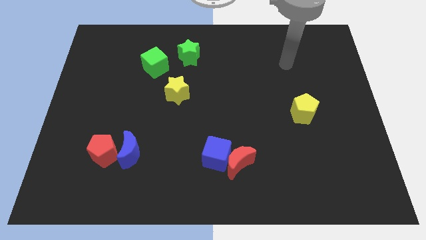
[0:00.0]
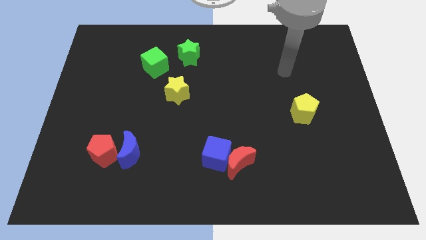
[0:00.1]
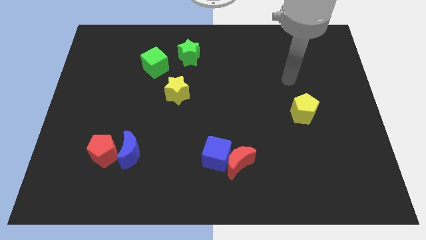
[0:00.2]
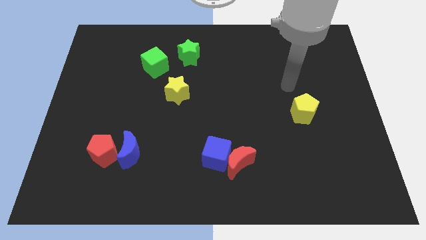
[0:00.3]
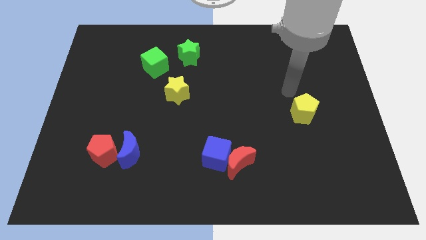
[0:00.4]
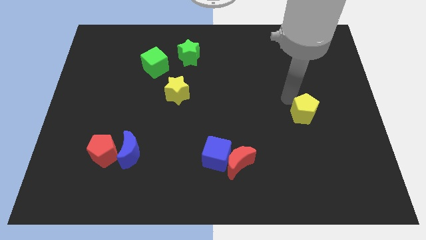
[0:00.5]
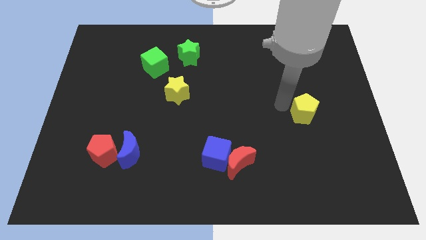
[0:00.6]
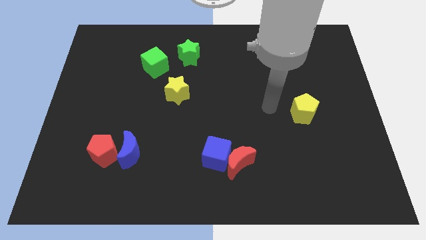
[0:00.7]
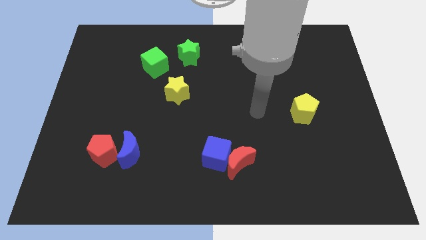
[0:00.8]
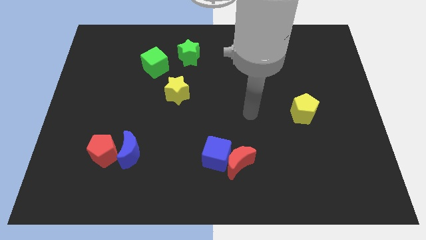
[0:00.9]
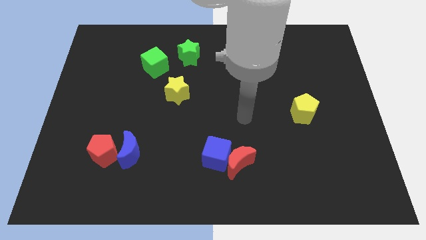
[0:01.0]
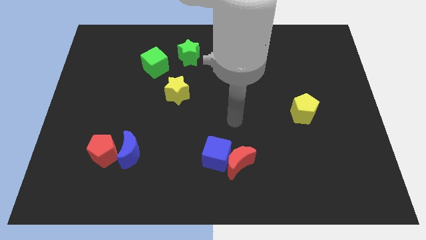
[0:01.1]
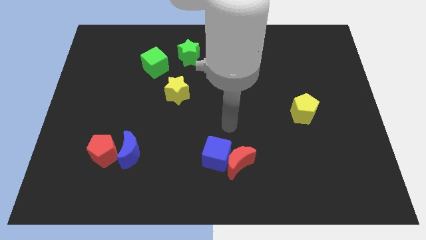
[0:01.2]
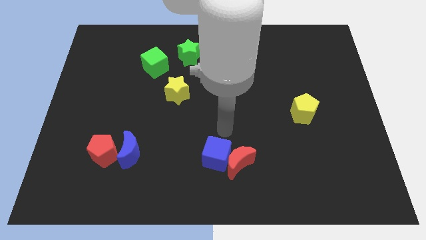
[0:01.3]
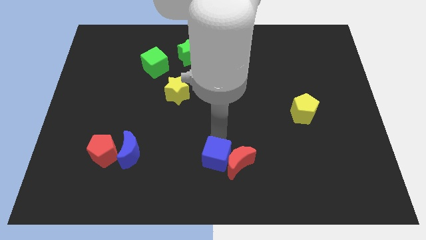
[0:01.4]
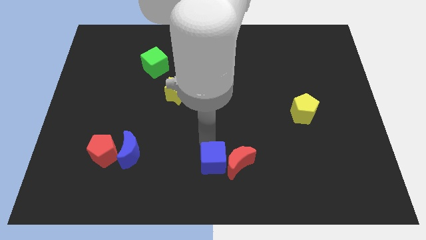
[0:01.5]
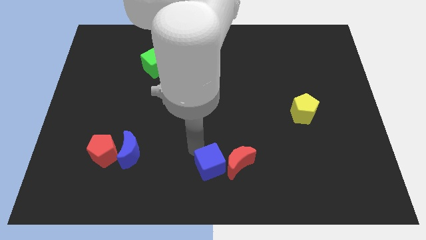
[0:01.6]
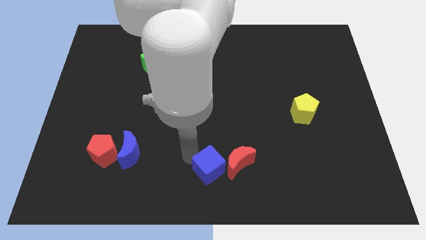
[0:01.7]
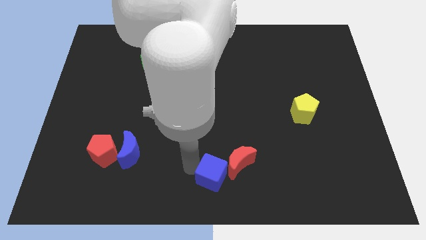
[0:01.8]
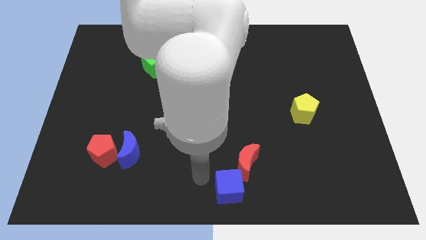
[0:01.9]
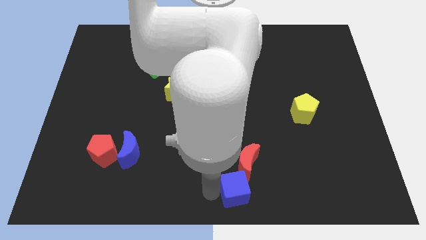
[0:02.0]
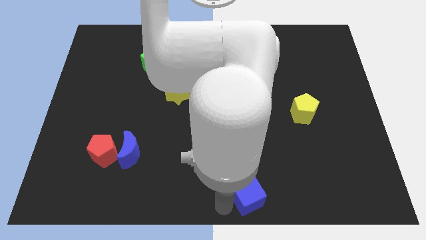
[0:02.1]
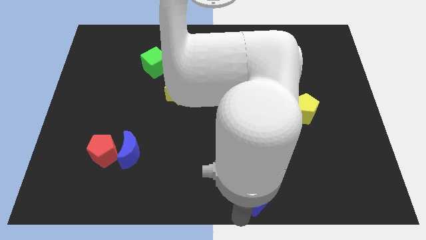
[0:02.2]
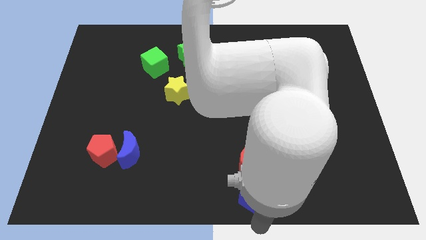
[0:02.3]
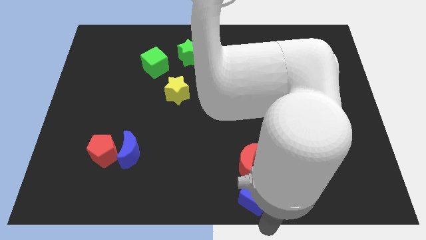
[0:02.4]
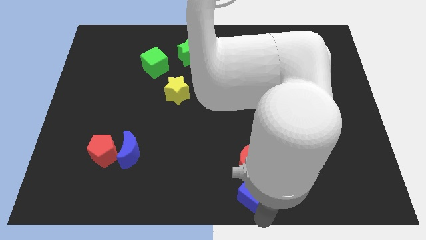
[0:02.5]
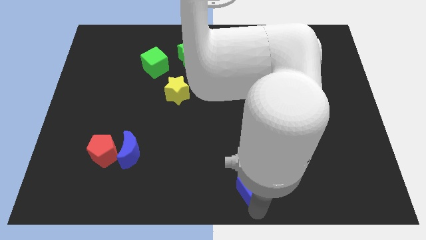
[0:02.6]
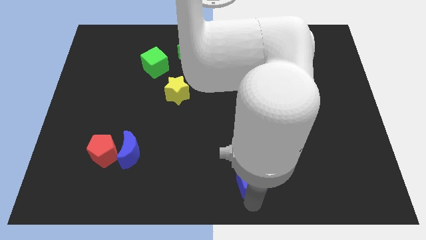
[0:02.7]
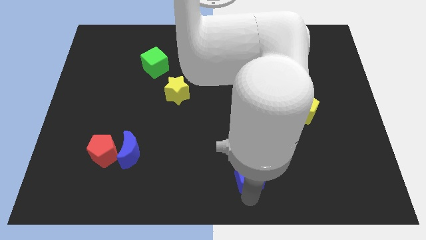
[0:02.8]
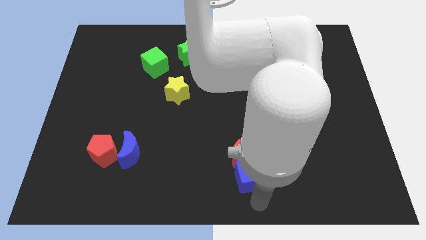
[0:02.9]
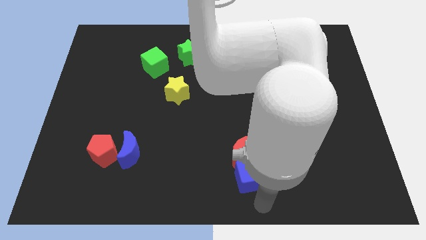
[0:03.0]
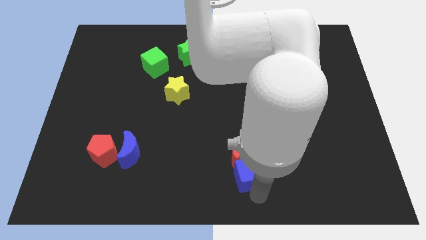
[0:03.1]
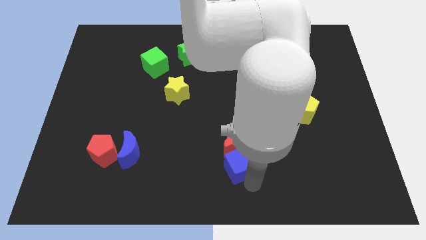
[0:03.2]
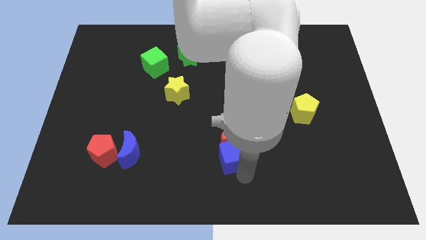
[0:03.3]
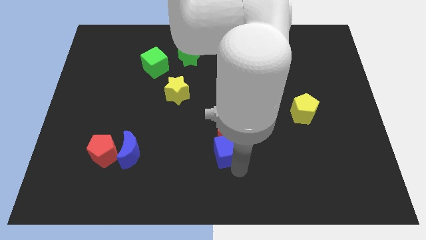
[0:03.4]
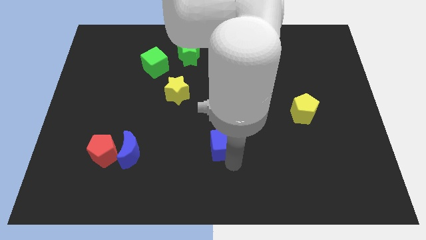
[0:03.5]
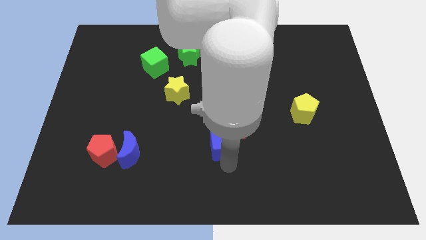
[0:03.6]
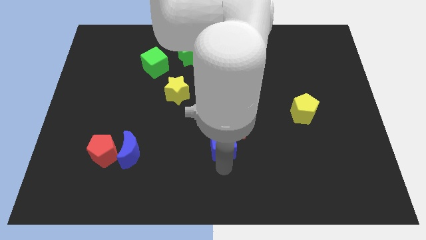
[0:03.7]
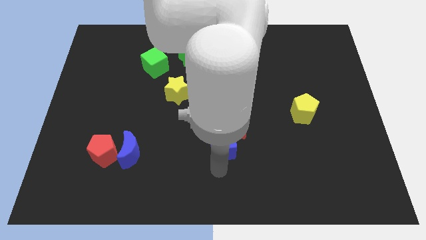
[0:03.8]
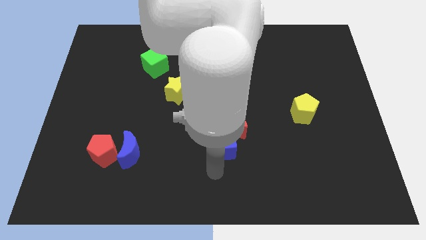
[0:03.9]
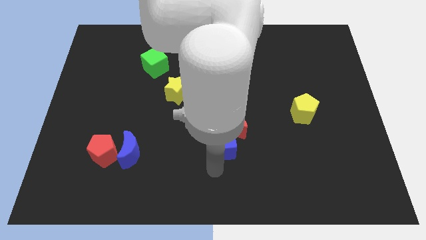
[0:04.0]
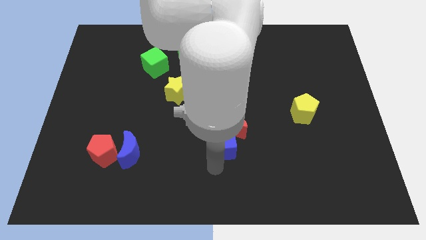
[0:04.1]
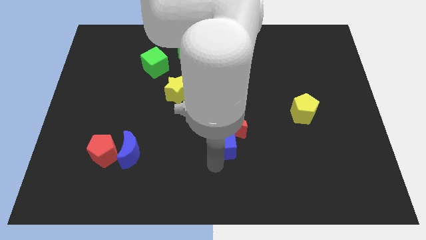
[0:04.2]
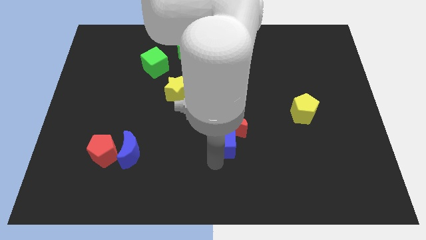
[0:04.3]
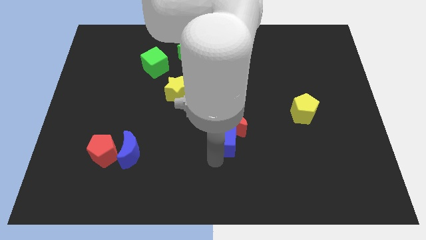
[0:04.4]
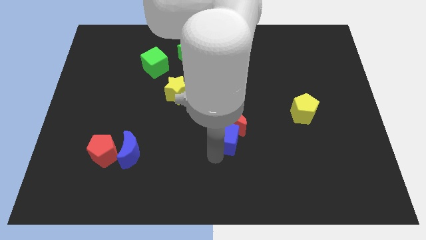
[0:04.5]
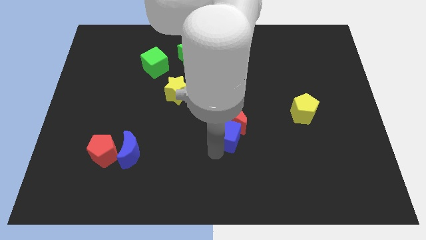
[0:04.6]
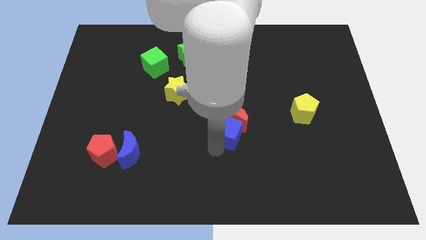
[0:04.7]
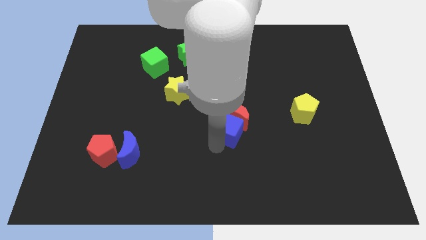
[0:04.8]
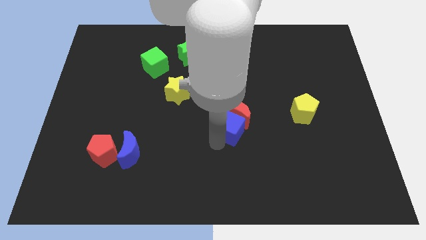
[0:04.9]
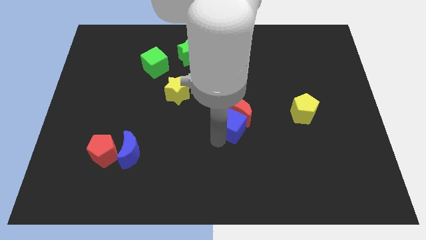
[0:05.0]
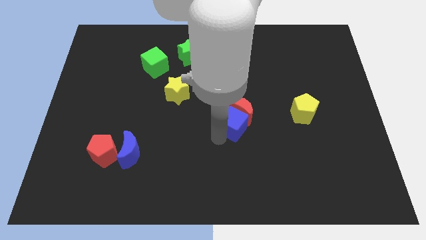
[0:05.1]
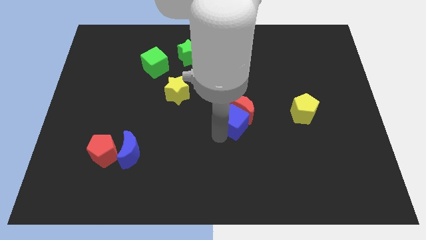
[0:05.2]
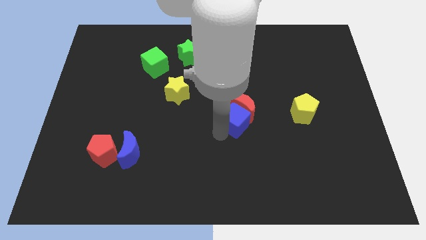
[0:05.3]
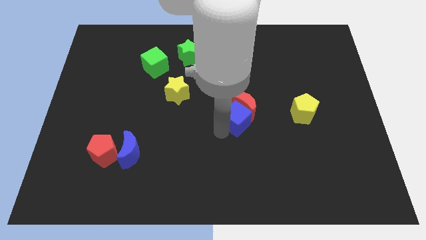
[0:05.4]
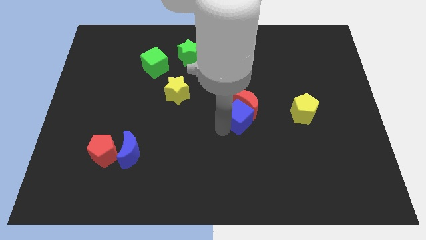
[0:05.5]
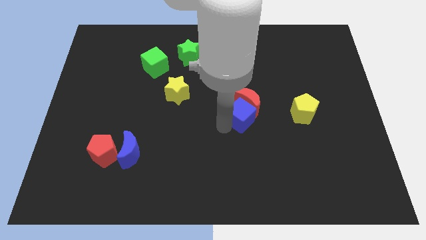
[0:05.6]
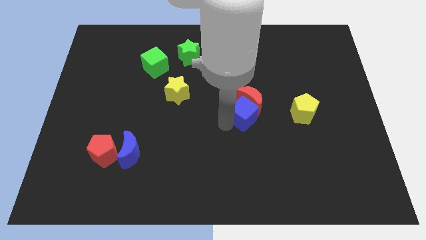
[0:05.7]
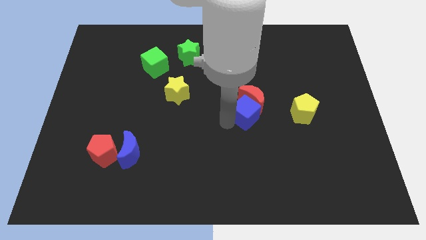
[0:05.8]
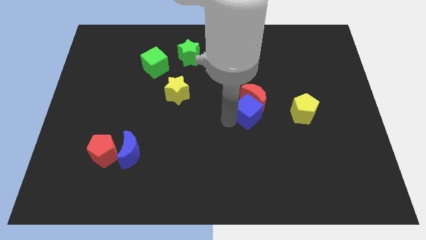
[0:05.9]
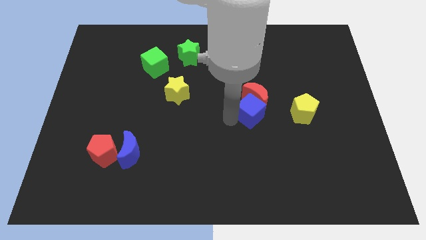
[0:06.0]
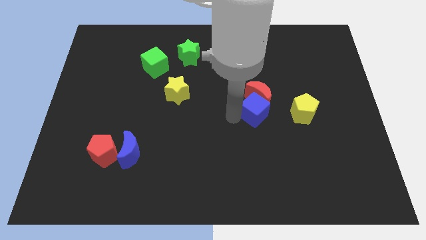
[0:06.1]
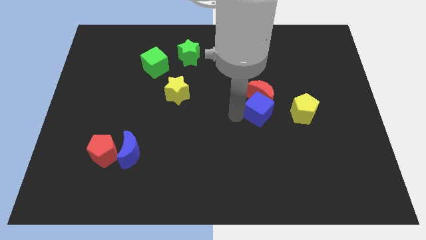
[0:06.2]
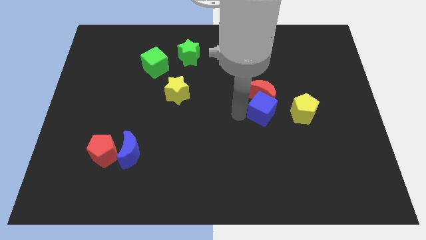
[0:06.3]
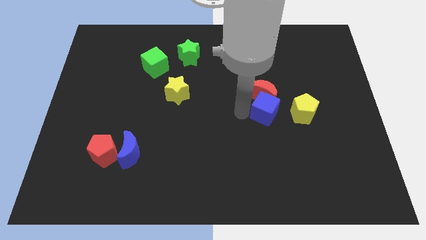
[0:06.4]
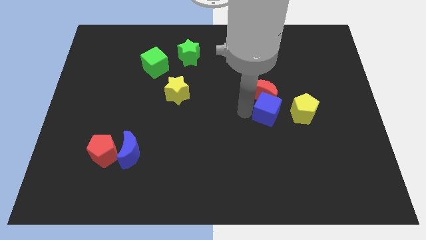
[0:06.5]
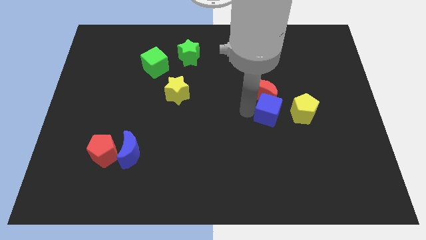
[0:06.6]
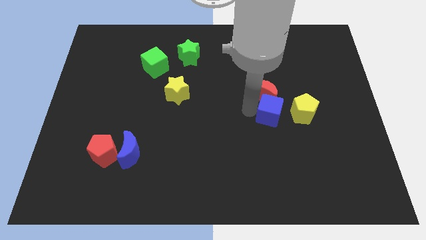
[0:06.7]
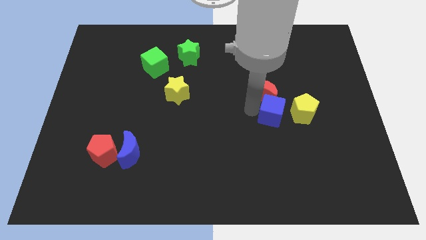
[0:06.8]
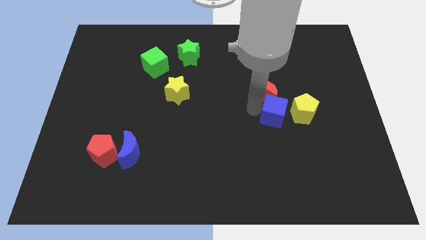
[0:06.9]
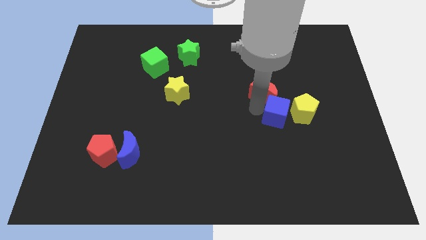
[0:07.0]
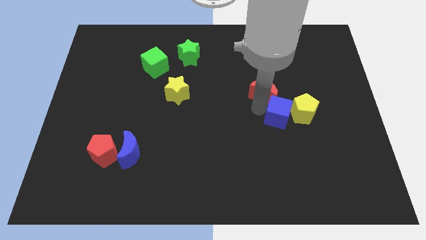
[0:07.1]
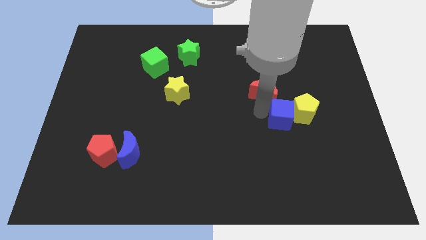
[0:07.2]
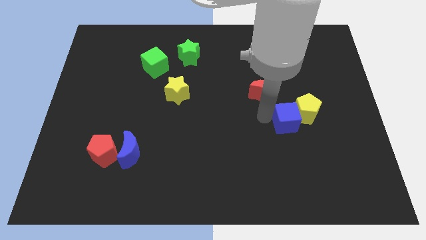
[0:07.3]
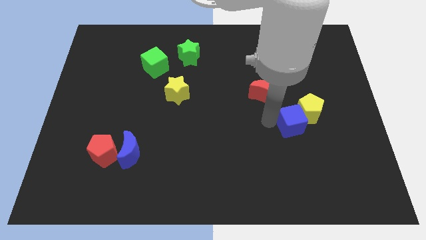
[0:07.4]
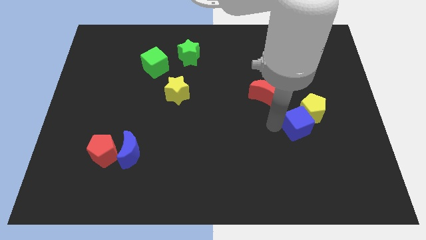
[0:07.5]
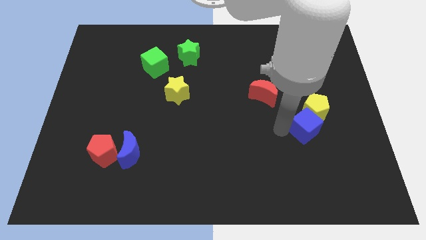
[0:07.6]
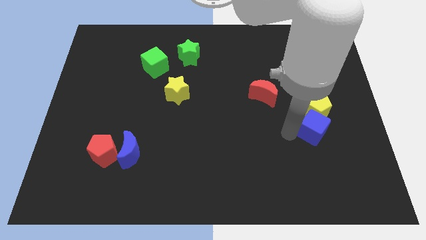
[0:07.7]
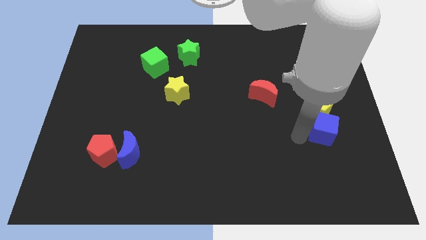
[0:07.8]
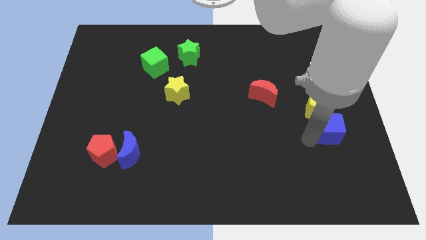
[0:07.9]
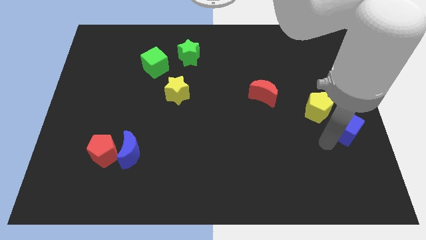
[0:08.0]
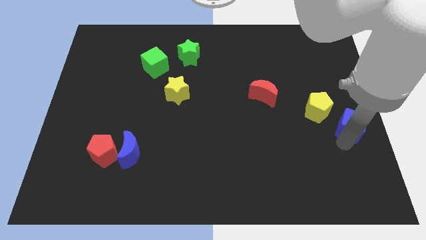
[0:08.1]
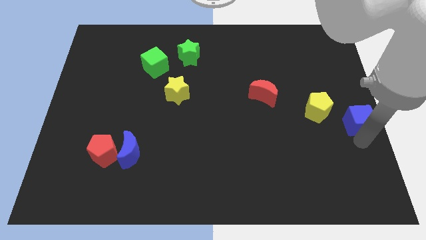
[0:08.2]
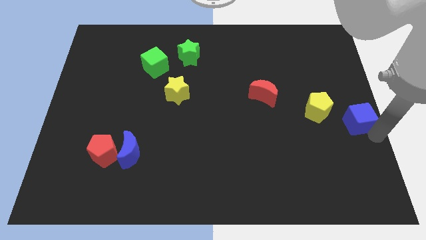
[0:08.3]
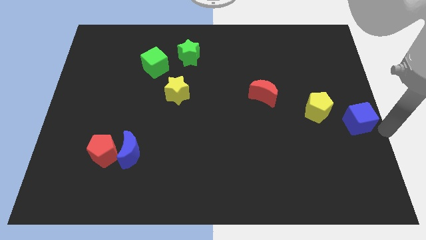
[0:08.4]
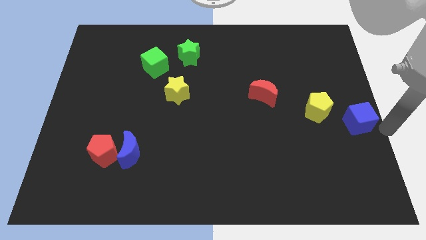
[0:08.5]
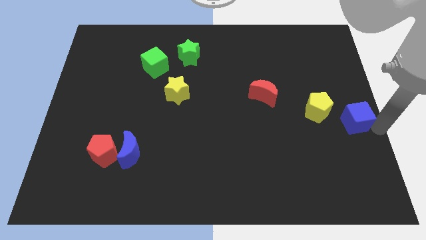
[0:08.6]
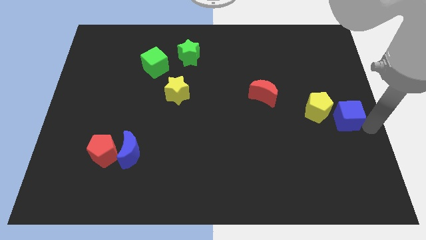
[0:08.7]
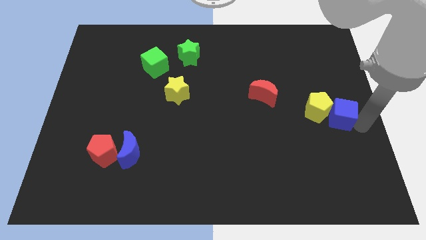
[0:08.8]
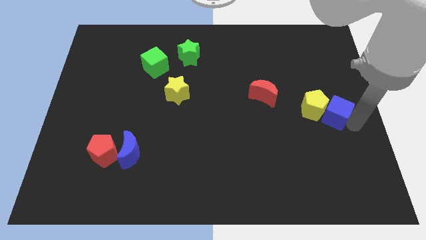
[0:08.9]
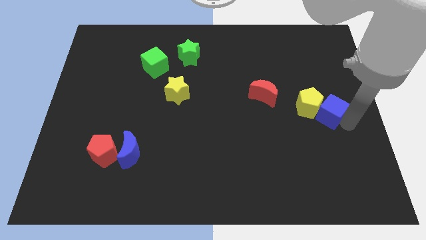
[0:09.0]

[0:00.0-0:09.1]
push the blue cube upwards and to the right
